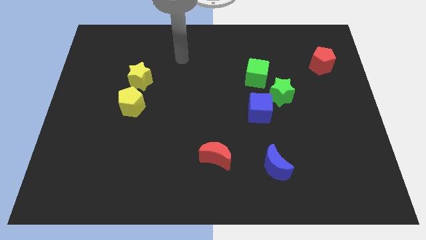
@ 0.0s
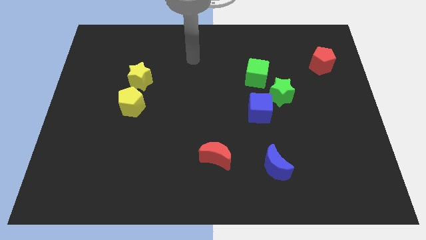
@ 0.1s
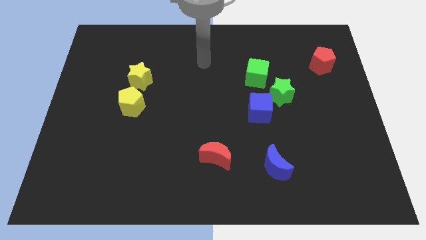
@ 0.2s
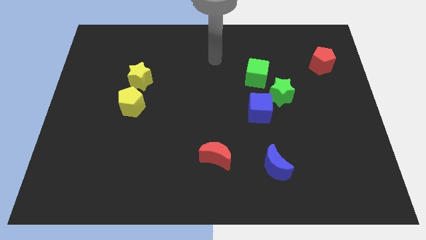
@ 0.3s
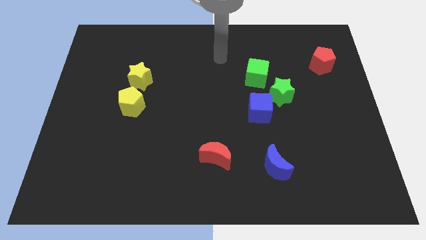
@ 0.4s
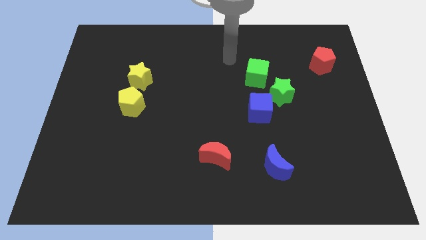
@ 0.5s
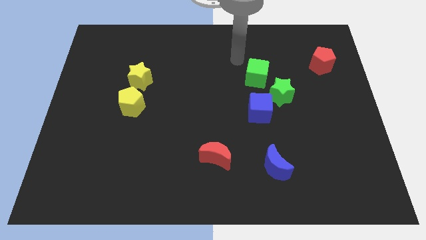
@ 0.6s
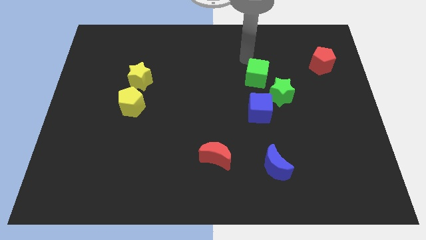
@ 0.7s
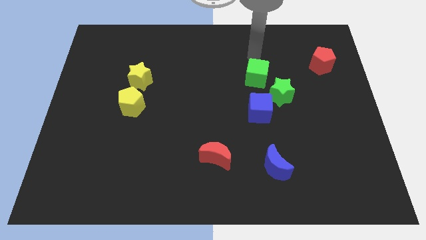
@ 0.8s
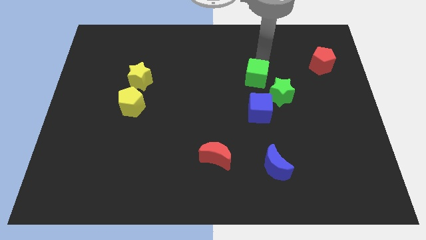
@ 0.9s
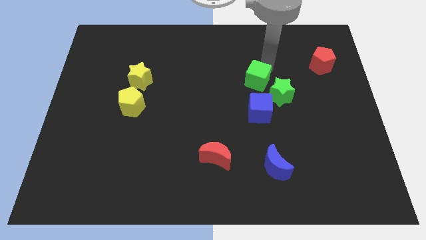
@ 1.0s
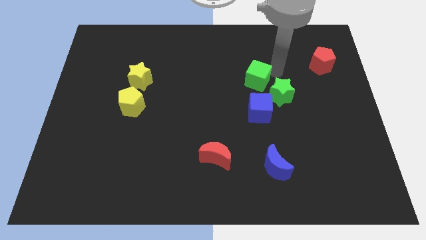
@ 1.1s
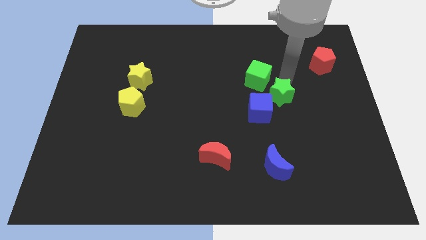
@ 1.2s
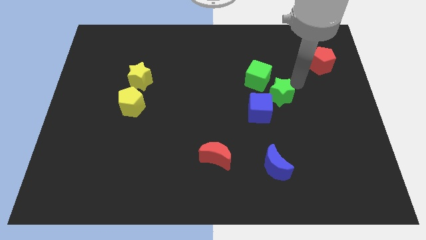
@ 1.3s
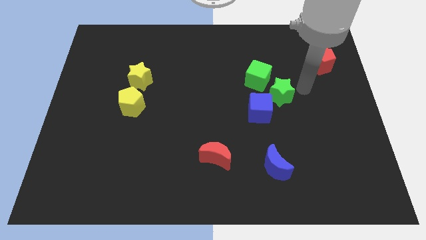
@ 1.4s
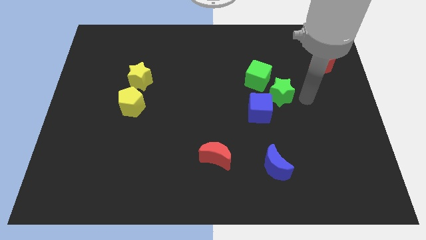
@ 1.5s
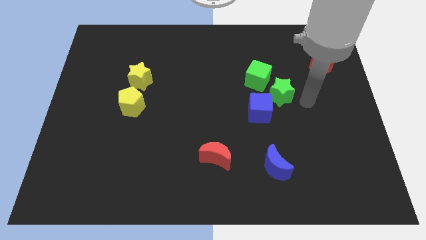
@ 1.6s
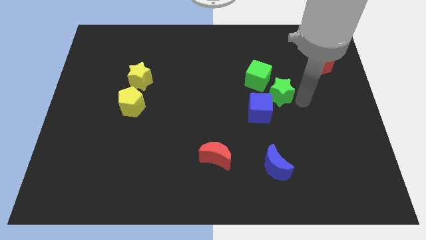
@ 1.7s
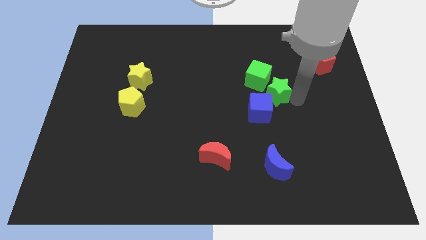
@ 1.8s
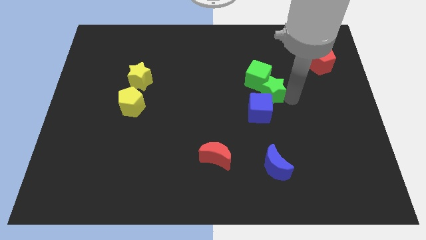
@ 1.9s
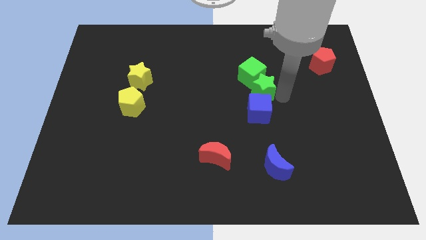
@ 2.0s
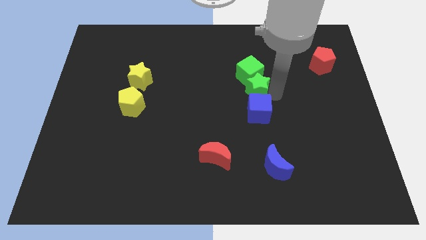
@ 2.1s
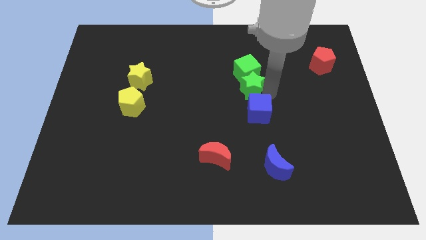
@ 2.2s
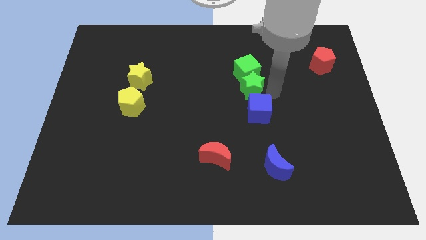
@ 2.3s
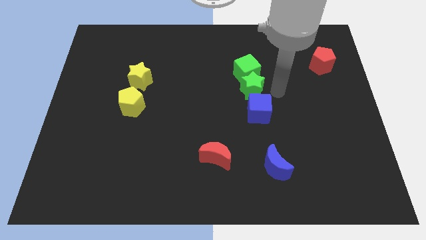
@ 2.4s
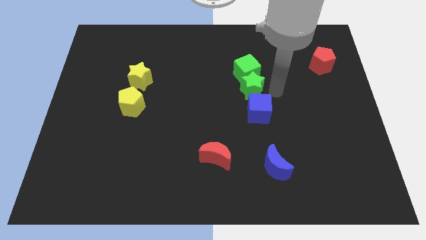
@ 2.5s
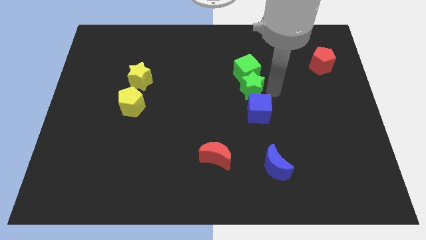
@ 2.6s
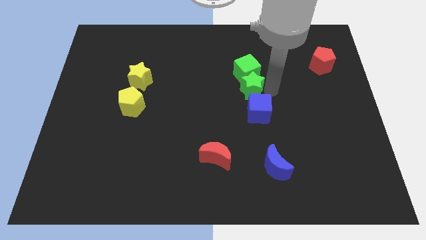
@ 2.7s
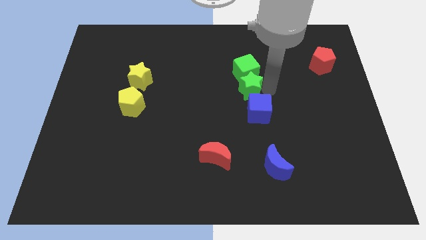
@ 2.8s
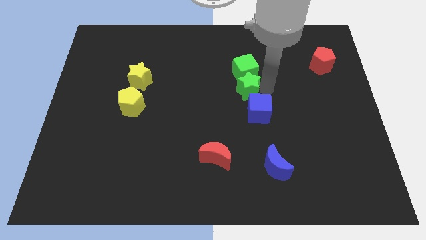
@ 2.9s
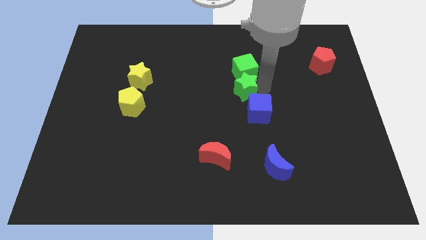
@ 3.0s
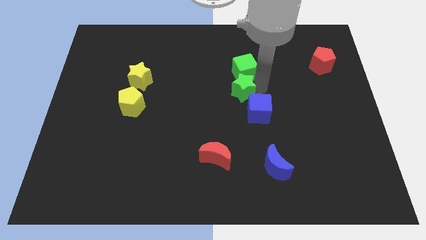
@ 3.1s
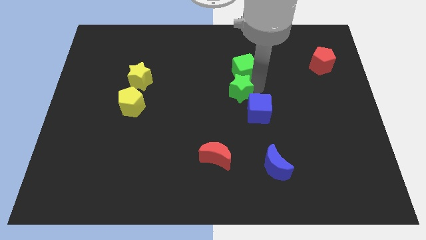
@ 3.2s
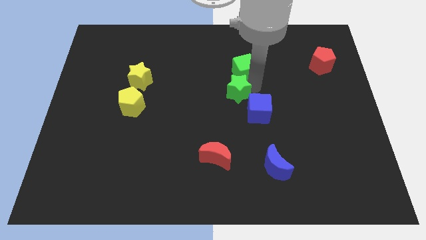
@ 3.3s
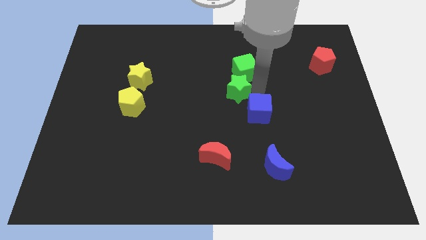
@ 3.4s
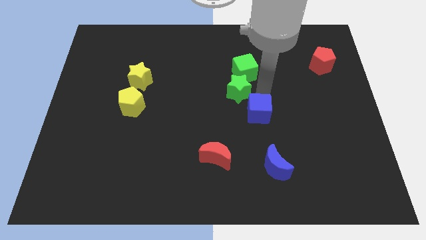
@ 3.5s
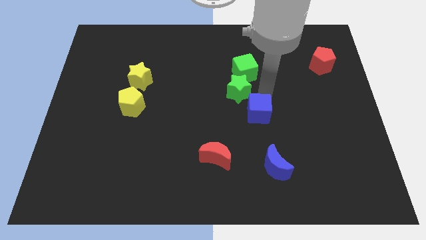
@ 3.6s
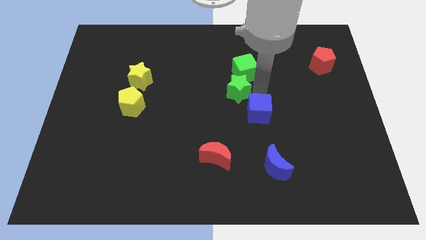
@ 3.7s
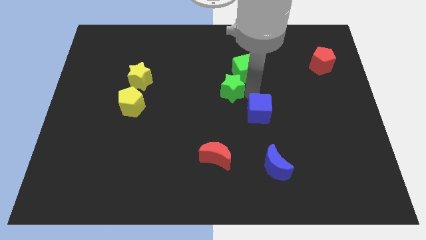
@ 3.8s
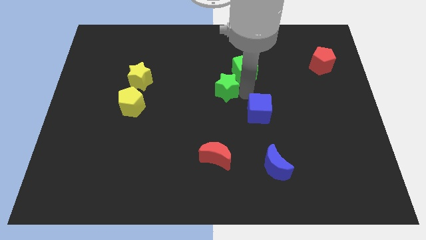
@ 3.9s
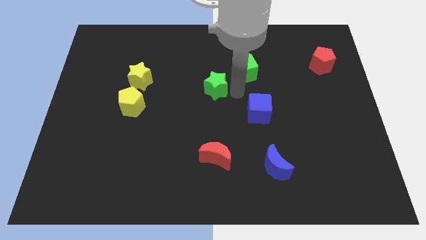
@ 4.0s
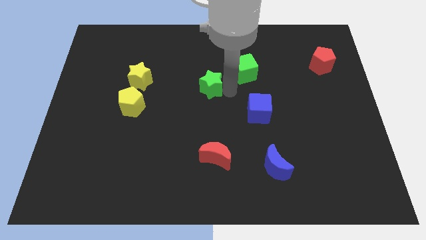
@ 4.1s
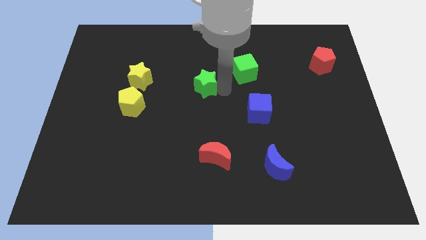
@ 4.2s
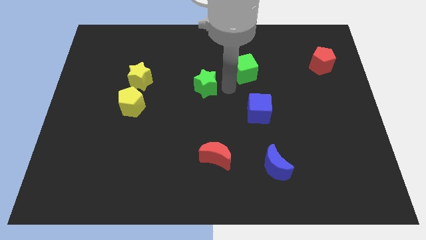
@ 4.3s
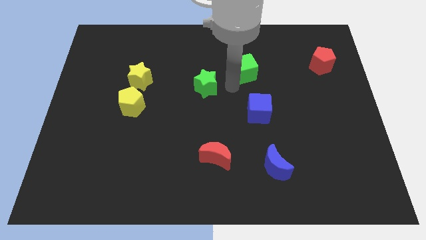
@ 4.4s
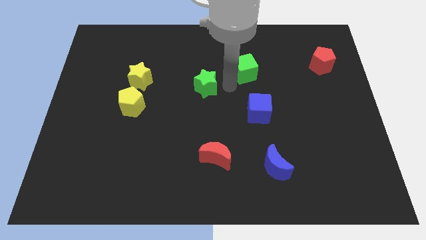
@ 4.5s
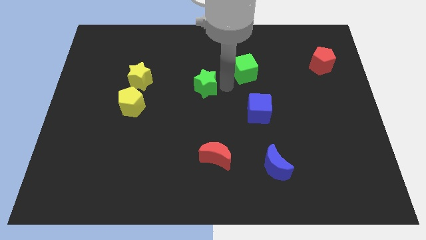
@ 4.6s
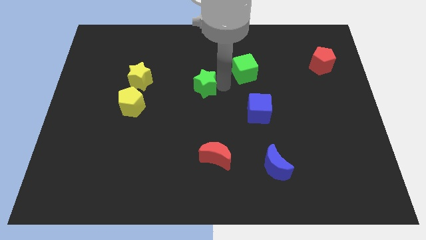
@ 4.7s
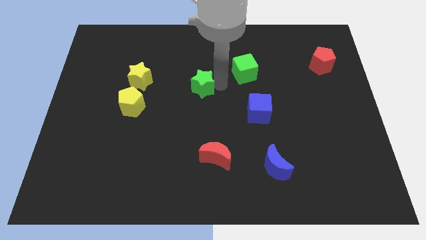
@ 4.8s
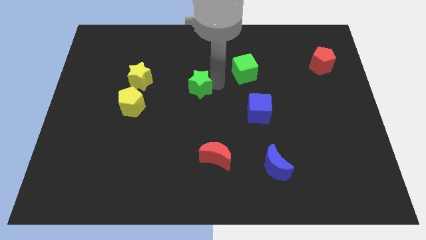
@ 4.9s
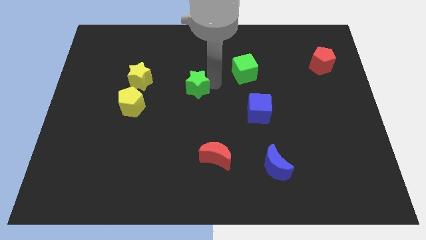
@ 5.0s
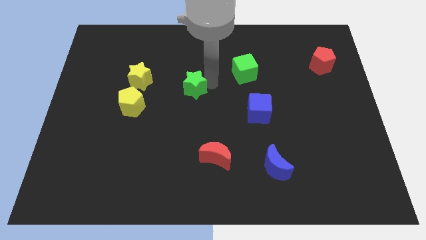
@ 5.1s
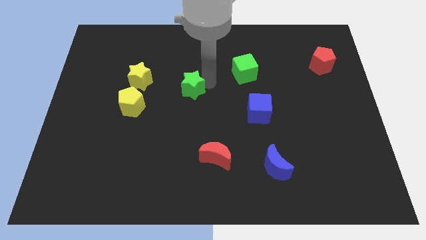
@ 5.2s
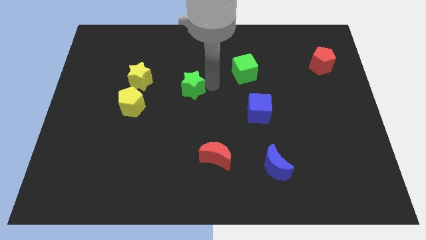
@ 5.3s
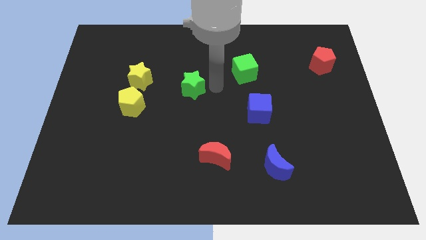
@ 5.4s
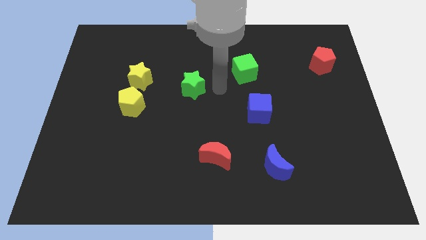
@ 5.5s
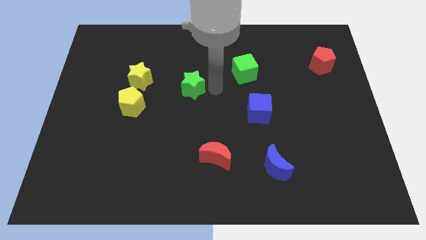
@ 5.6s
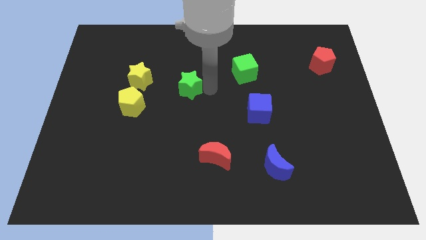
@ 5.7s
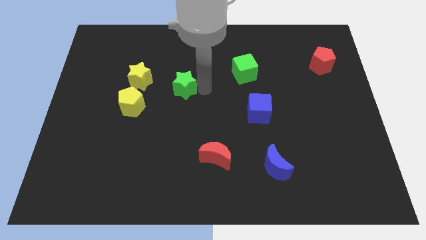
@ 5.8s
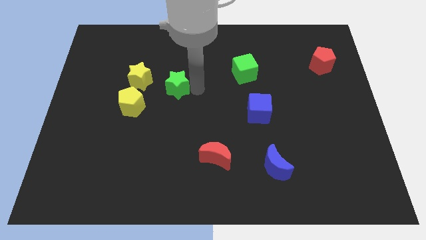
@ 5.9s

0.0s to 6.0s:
move the green star diagonally up and to the right of the yellow pentagon

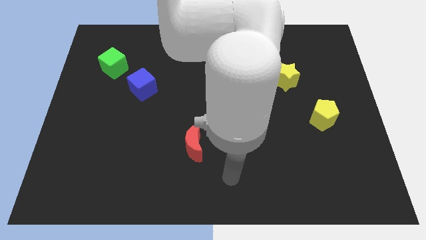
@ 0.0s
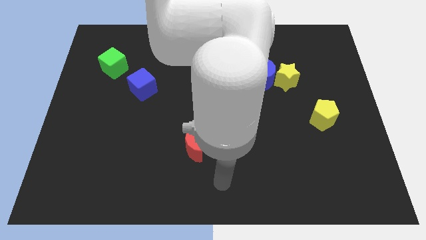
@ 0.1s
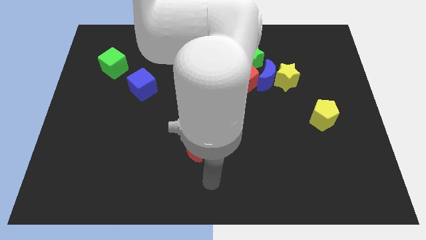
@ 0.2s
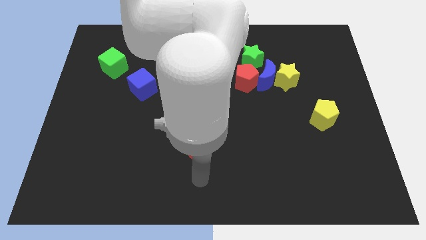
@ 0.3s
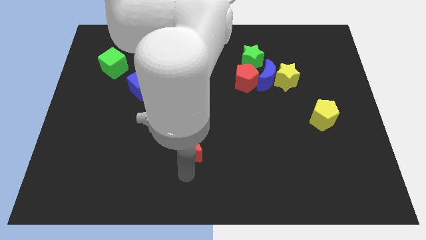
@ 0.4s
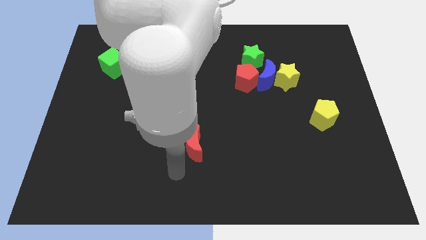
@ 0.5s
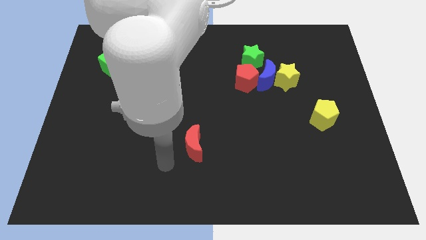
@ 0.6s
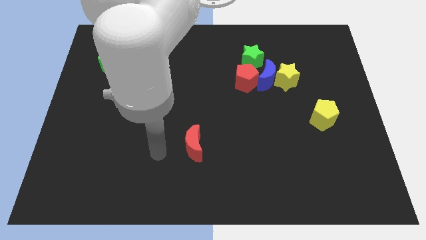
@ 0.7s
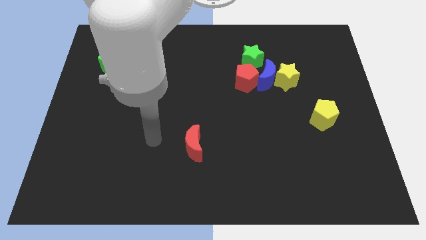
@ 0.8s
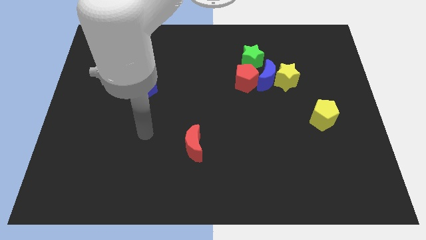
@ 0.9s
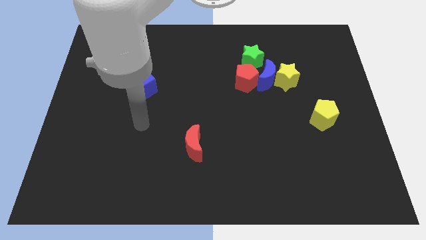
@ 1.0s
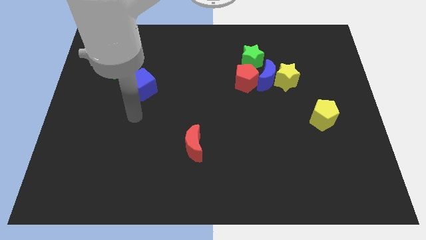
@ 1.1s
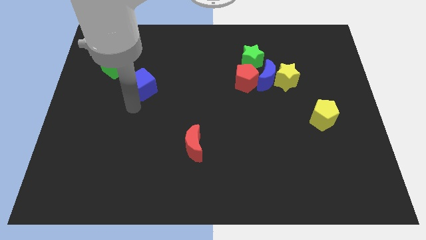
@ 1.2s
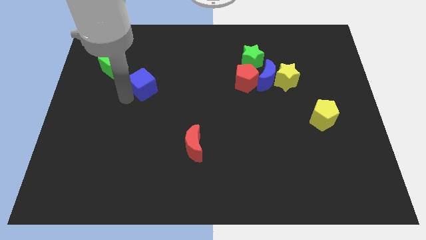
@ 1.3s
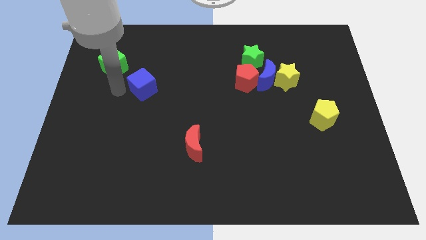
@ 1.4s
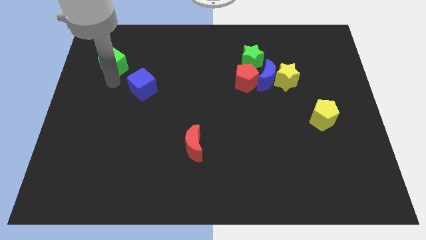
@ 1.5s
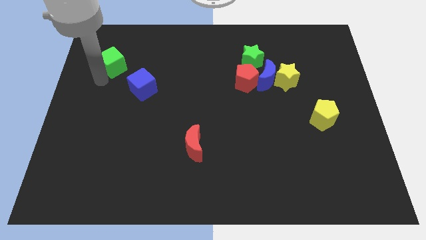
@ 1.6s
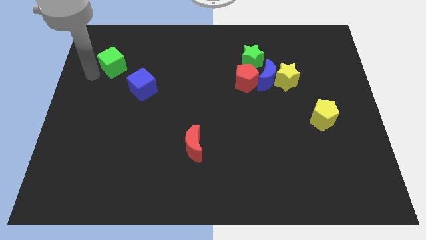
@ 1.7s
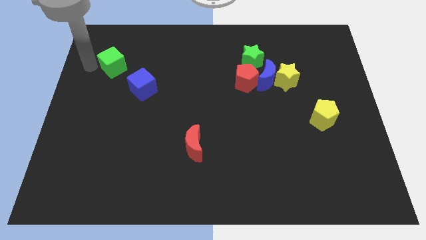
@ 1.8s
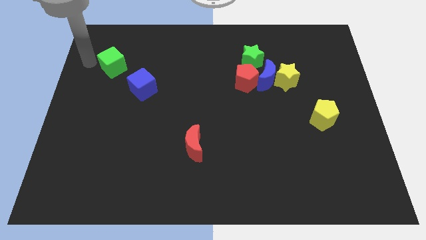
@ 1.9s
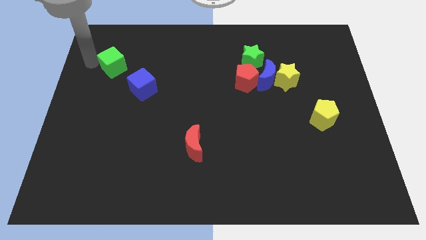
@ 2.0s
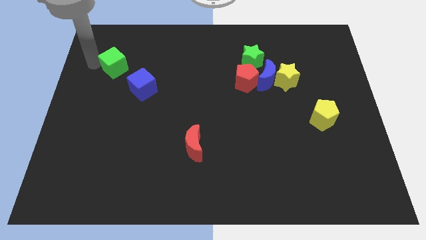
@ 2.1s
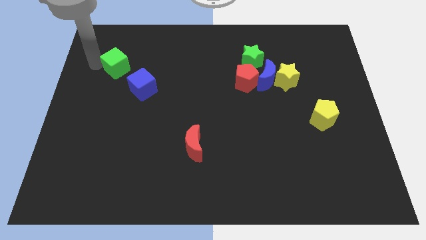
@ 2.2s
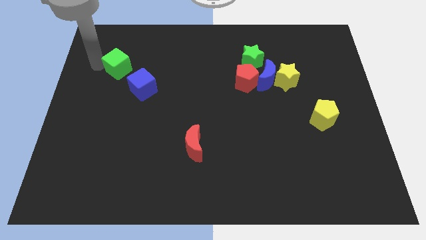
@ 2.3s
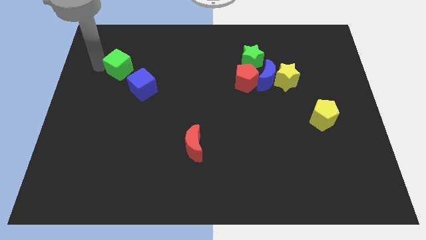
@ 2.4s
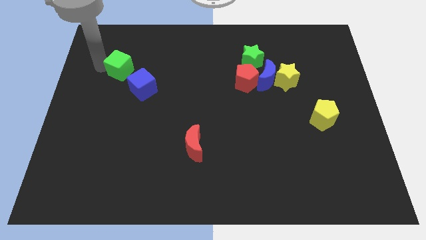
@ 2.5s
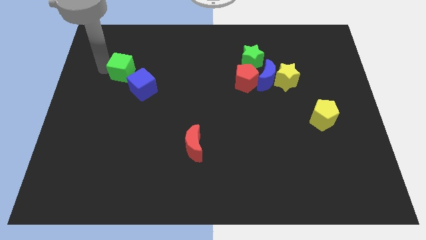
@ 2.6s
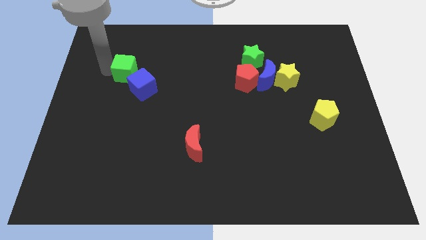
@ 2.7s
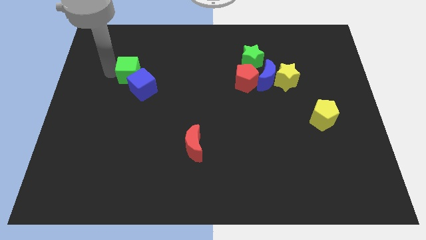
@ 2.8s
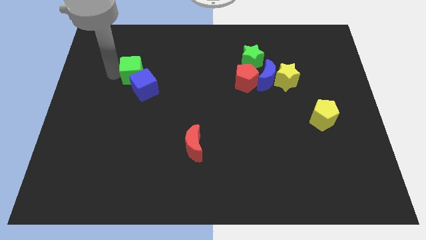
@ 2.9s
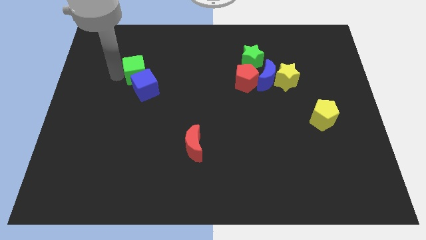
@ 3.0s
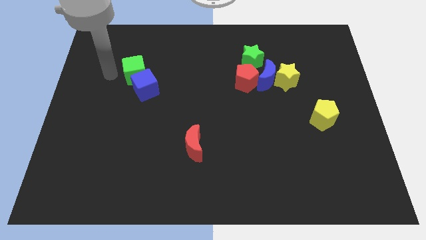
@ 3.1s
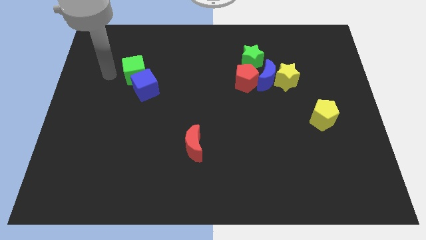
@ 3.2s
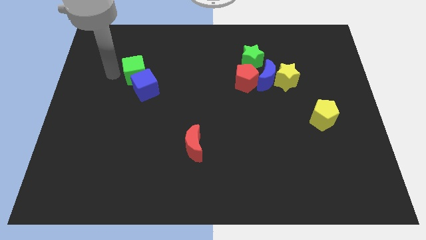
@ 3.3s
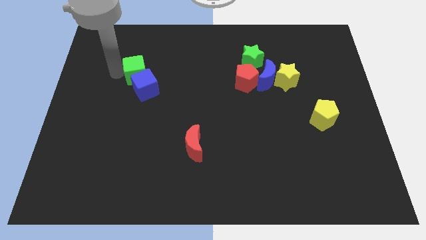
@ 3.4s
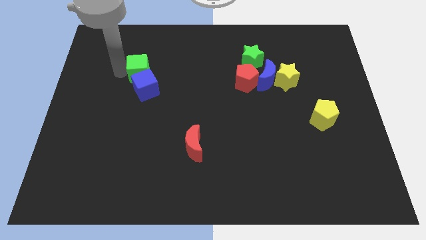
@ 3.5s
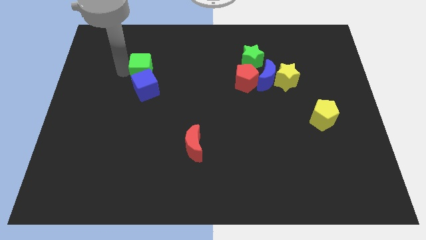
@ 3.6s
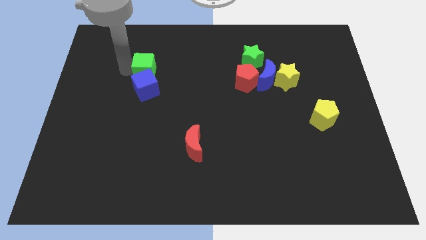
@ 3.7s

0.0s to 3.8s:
move the green cube to the top right of the blue cube
